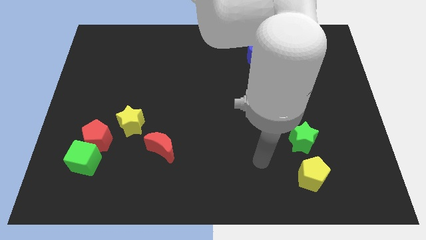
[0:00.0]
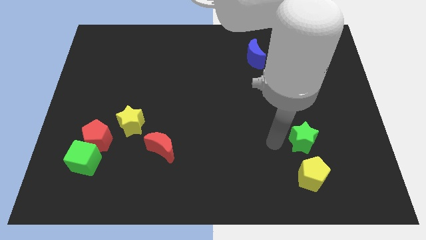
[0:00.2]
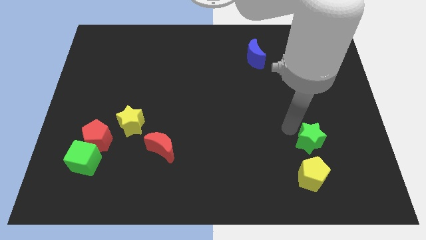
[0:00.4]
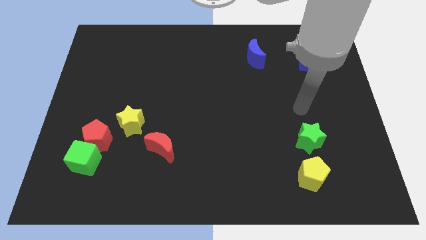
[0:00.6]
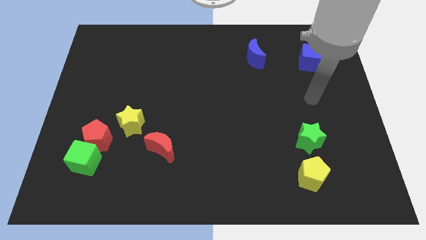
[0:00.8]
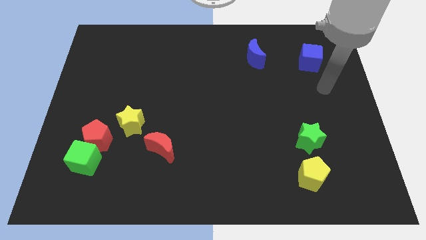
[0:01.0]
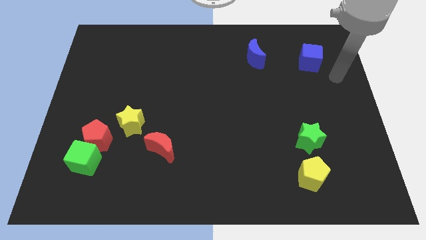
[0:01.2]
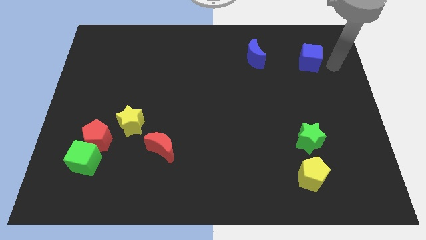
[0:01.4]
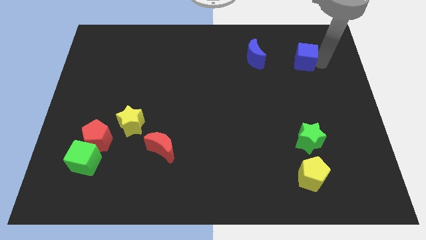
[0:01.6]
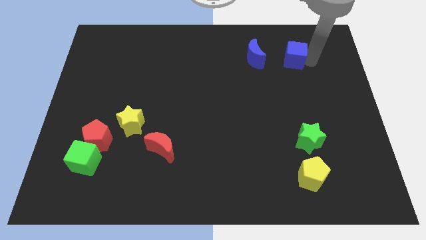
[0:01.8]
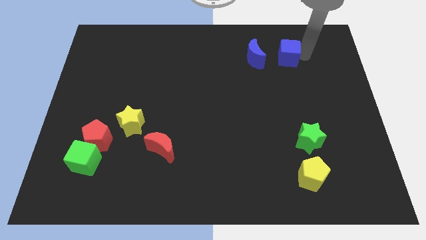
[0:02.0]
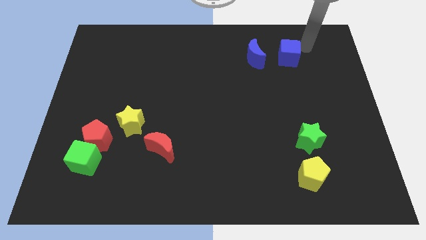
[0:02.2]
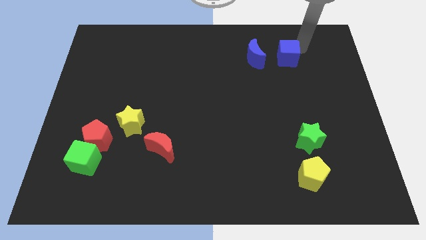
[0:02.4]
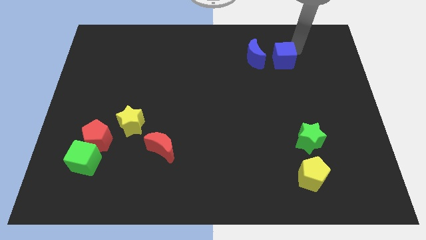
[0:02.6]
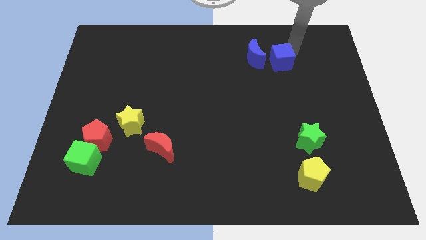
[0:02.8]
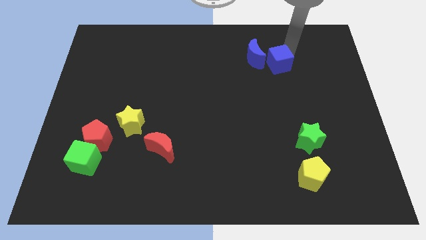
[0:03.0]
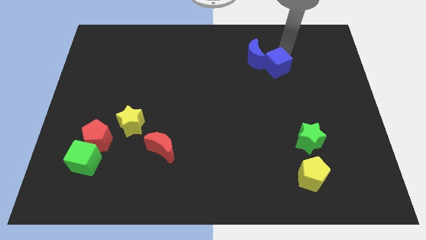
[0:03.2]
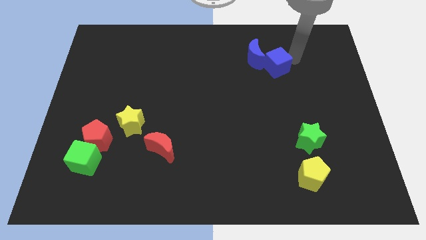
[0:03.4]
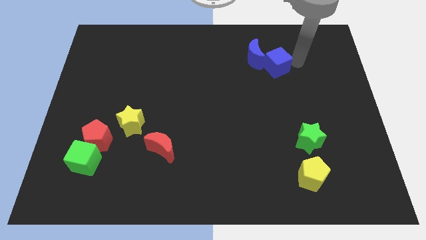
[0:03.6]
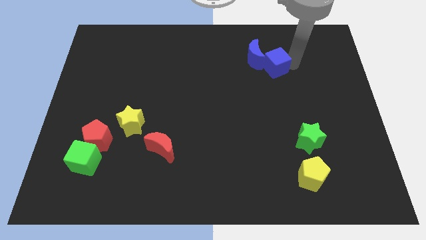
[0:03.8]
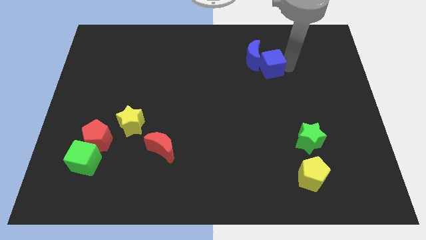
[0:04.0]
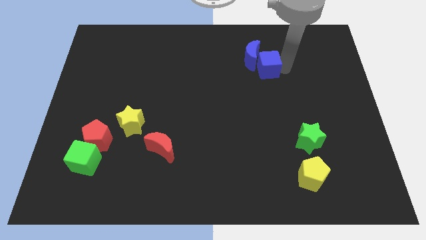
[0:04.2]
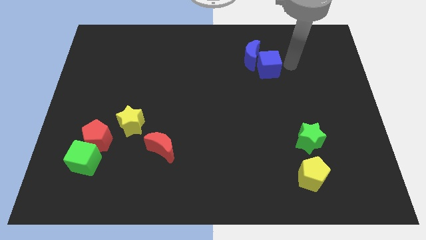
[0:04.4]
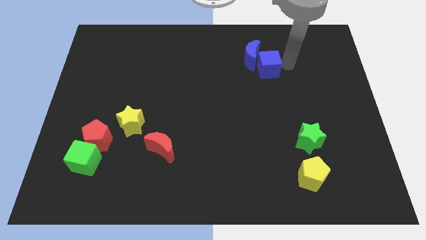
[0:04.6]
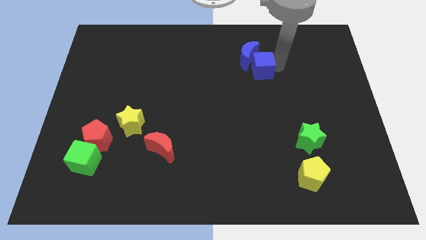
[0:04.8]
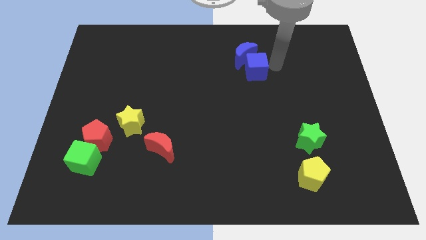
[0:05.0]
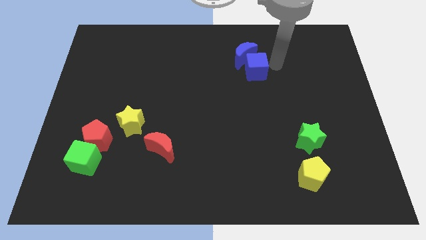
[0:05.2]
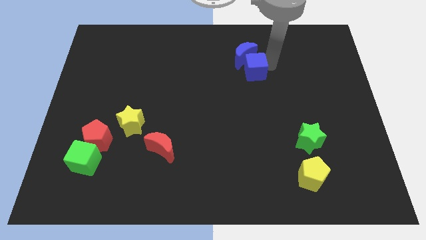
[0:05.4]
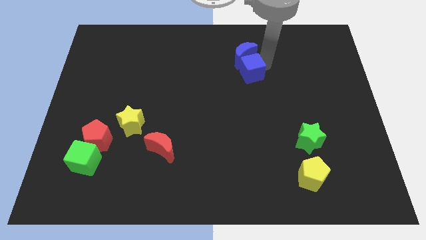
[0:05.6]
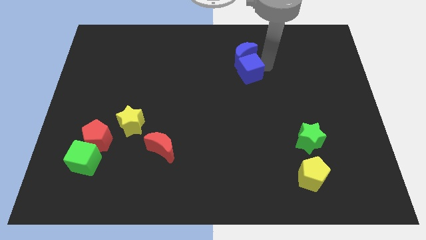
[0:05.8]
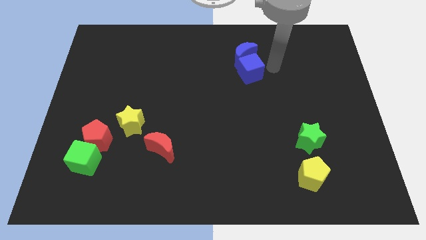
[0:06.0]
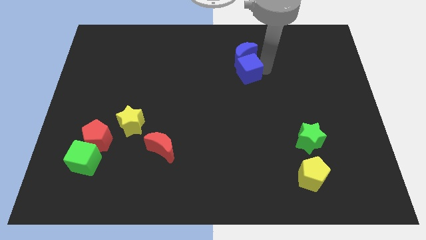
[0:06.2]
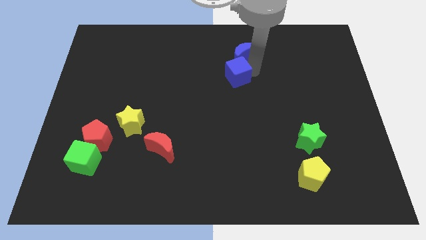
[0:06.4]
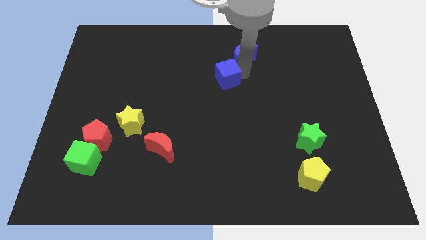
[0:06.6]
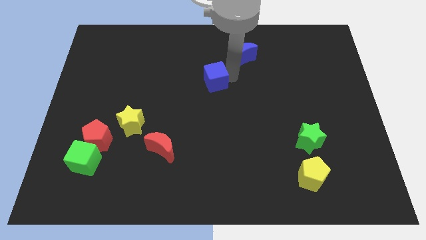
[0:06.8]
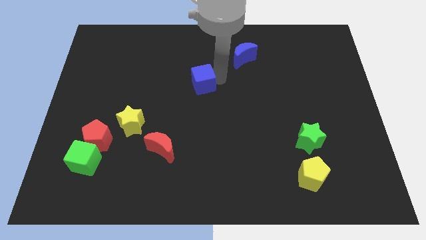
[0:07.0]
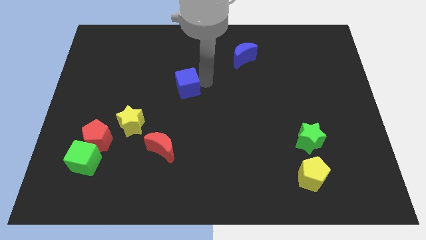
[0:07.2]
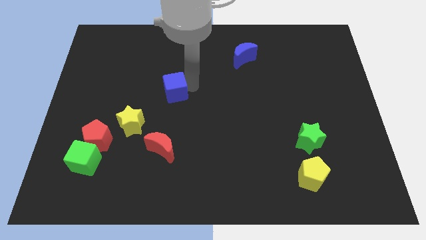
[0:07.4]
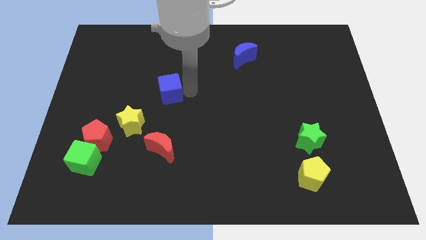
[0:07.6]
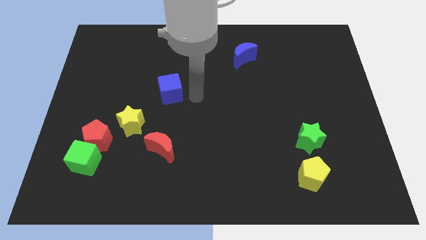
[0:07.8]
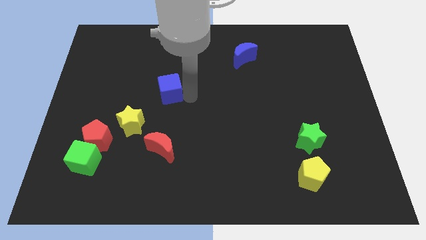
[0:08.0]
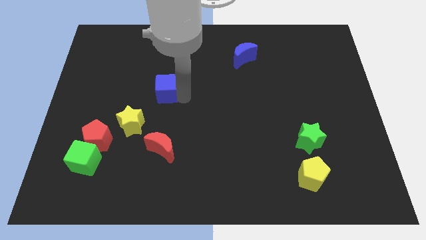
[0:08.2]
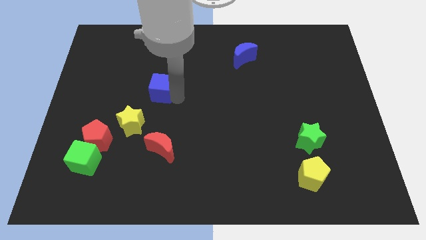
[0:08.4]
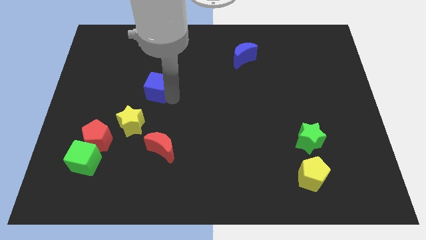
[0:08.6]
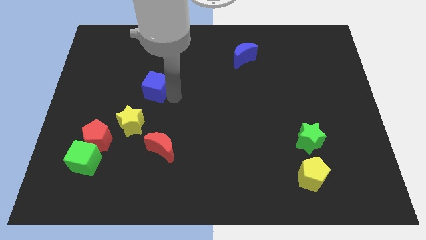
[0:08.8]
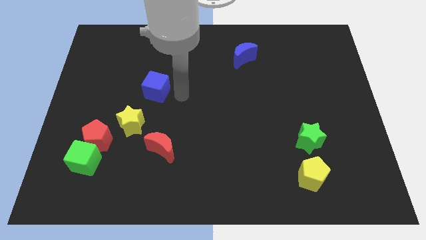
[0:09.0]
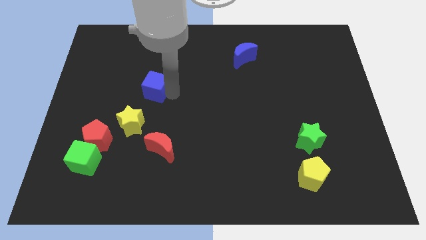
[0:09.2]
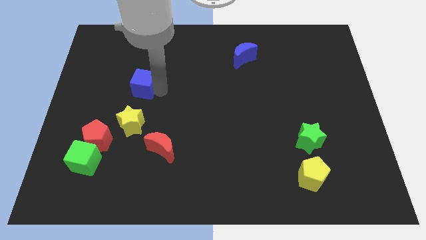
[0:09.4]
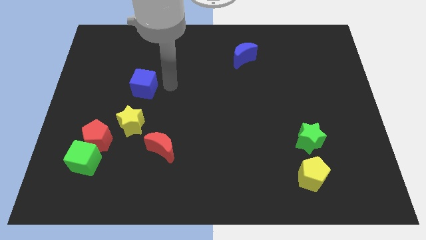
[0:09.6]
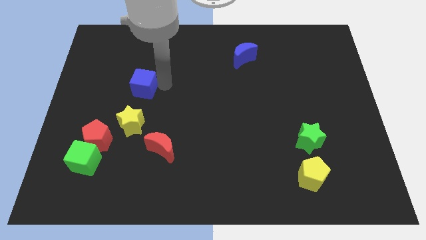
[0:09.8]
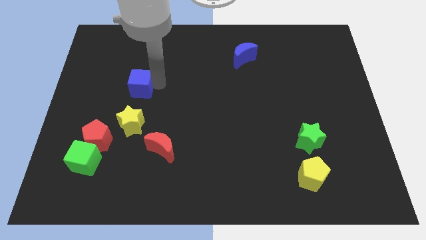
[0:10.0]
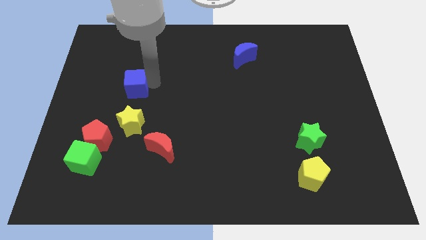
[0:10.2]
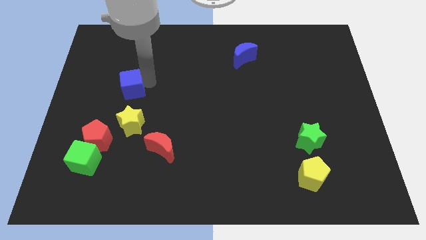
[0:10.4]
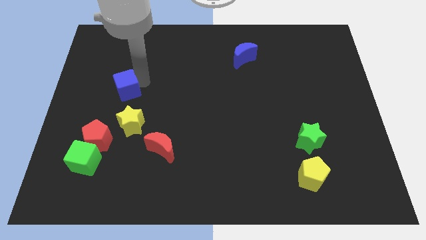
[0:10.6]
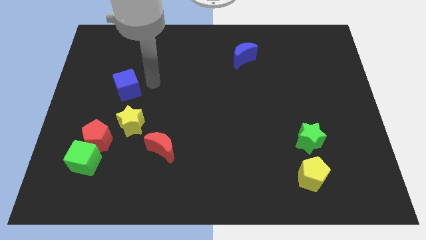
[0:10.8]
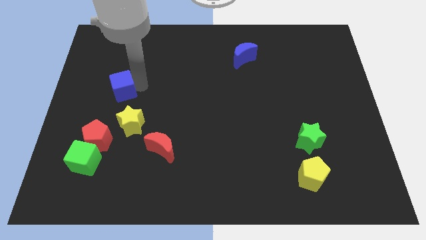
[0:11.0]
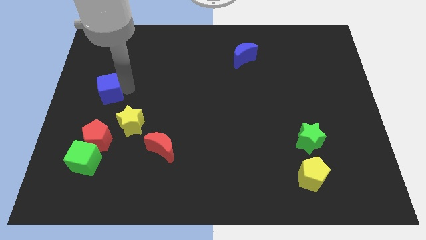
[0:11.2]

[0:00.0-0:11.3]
put the blue cube to the center left
